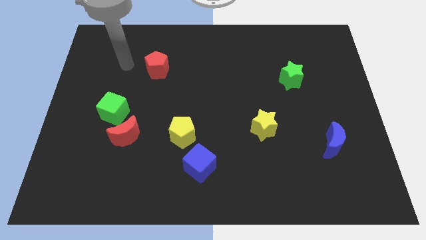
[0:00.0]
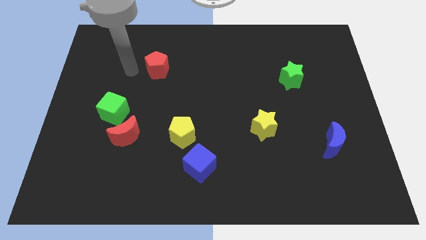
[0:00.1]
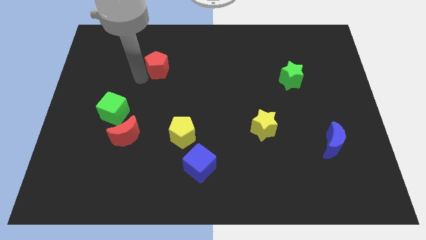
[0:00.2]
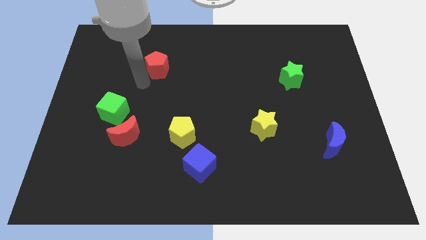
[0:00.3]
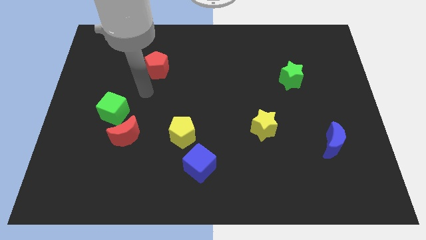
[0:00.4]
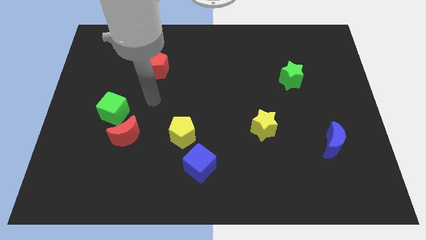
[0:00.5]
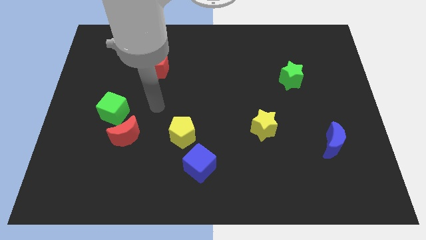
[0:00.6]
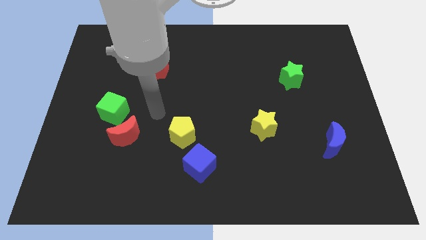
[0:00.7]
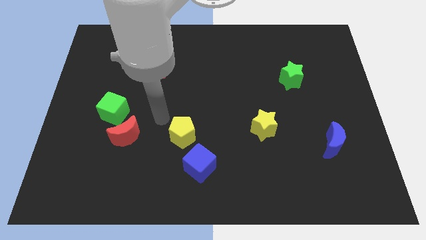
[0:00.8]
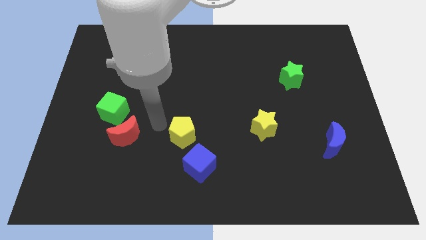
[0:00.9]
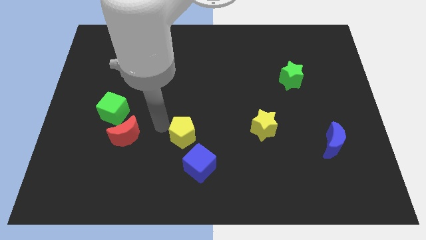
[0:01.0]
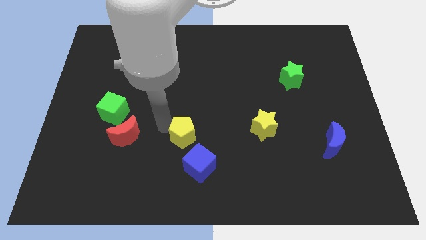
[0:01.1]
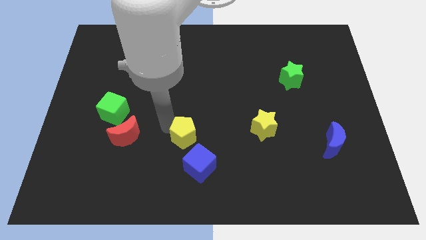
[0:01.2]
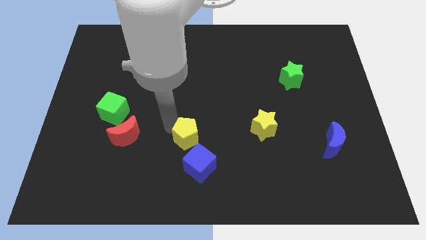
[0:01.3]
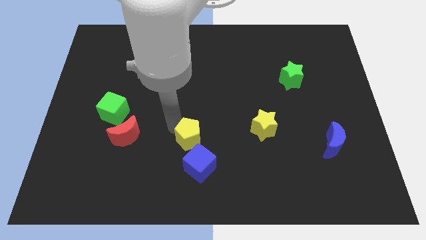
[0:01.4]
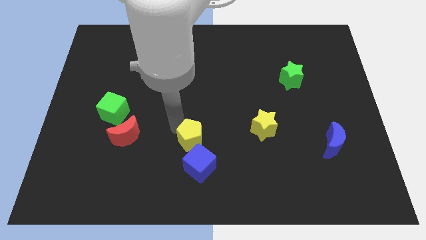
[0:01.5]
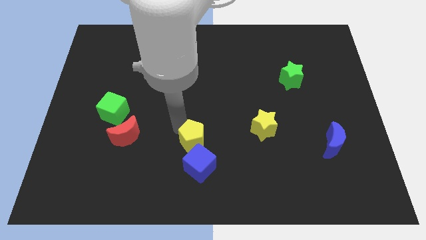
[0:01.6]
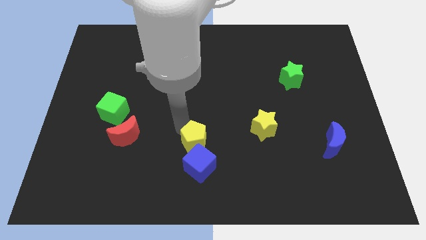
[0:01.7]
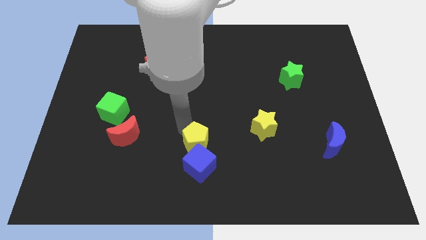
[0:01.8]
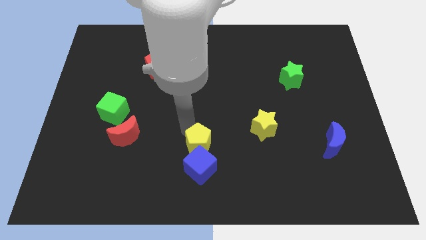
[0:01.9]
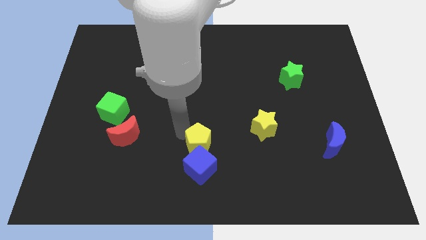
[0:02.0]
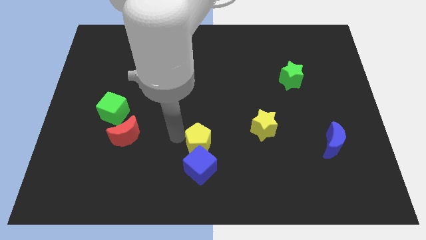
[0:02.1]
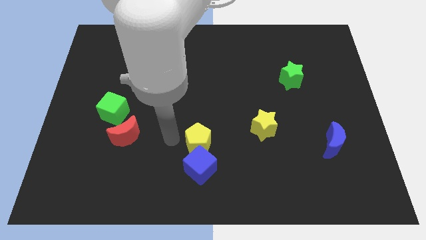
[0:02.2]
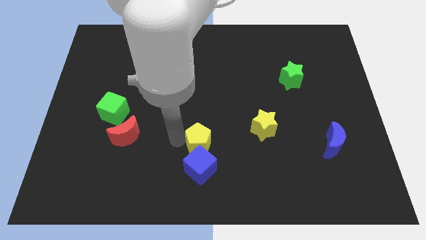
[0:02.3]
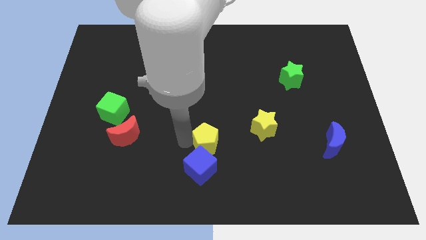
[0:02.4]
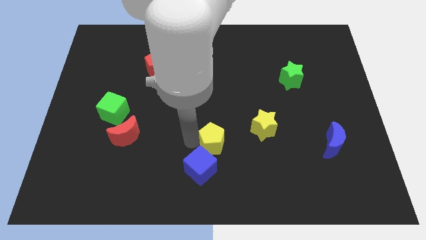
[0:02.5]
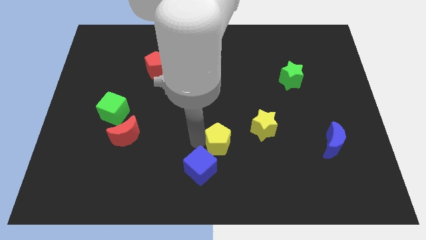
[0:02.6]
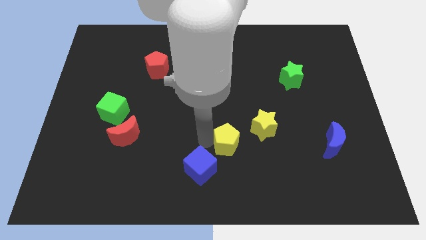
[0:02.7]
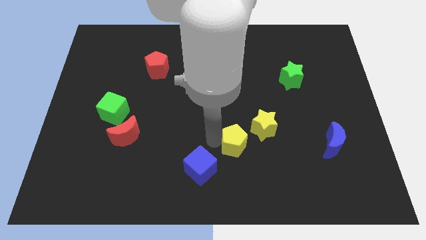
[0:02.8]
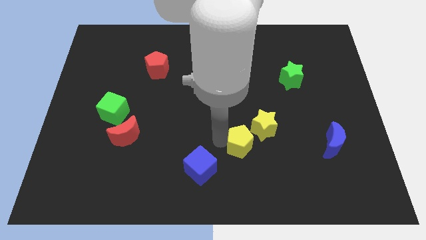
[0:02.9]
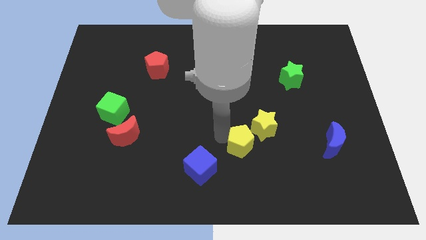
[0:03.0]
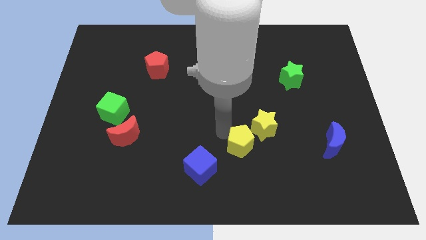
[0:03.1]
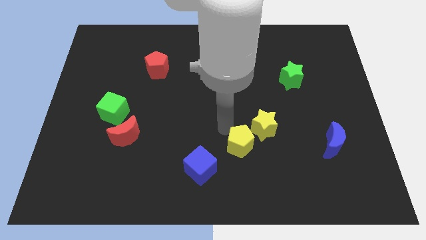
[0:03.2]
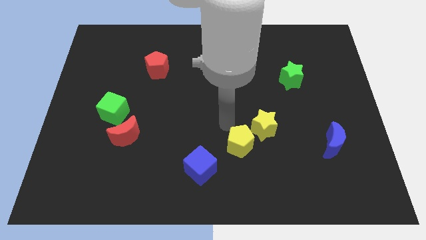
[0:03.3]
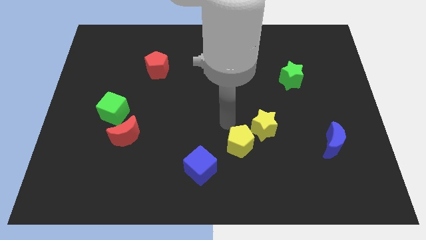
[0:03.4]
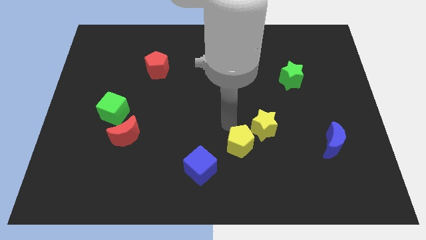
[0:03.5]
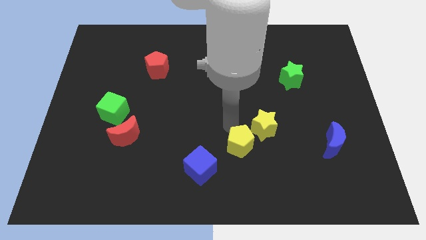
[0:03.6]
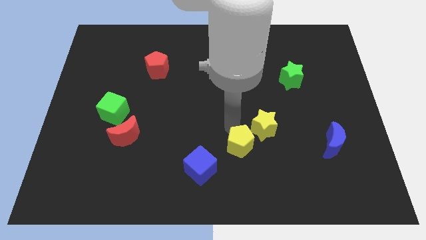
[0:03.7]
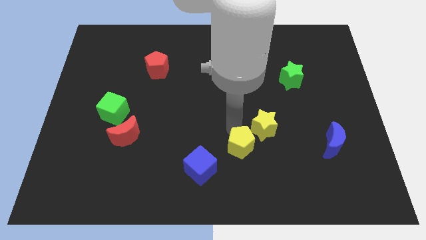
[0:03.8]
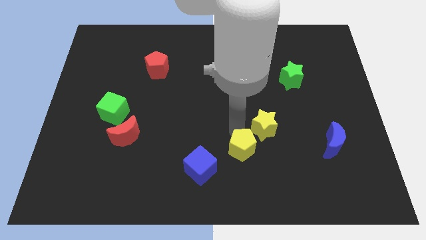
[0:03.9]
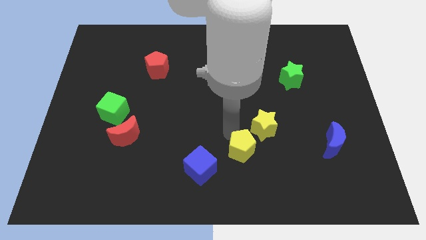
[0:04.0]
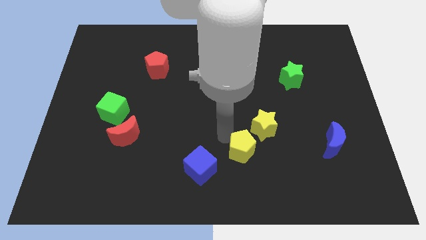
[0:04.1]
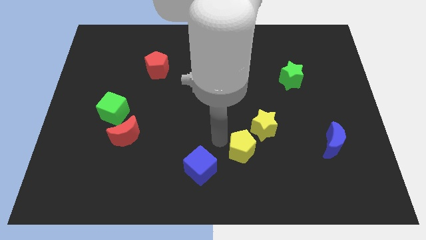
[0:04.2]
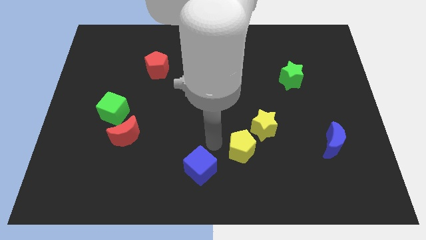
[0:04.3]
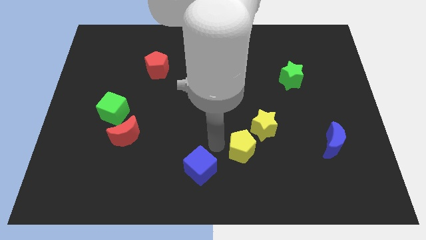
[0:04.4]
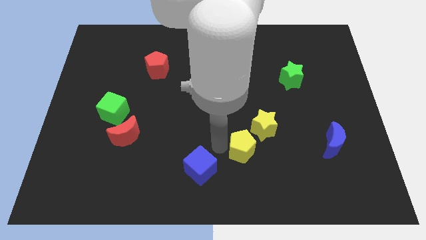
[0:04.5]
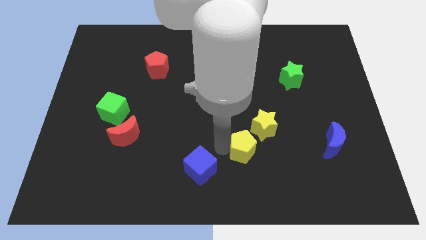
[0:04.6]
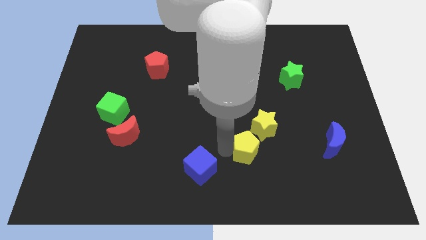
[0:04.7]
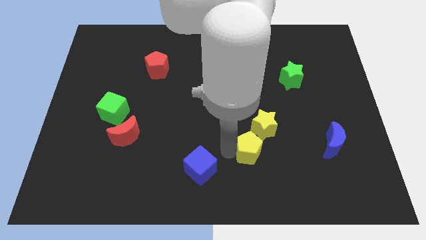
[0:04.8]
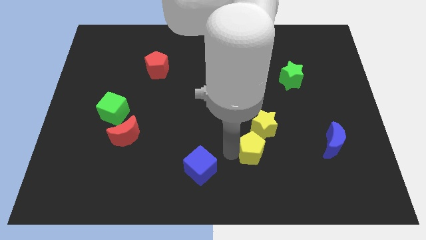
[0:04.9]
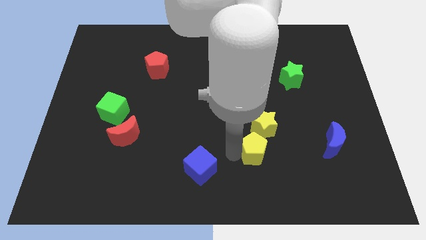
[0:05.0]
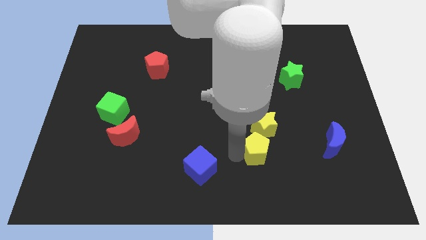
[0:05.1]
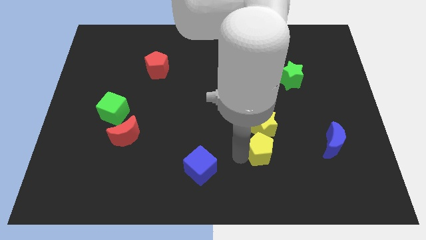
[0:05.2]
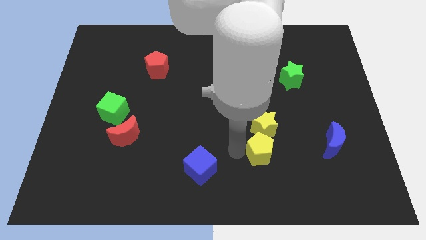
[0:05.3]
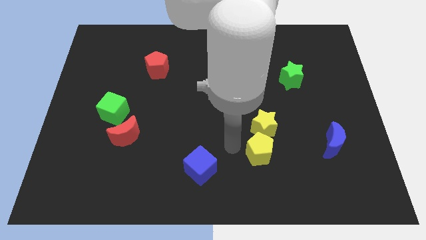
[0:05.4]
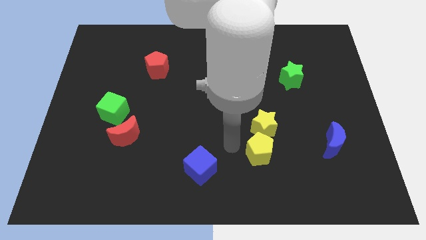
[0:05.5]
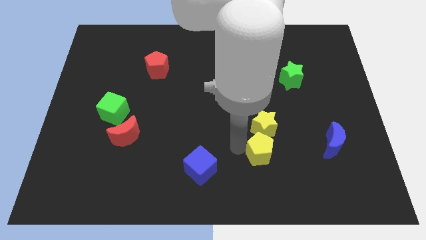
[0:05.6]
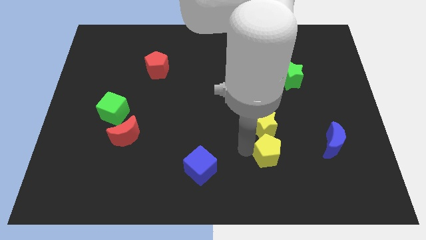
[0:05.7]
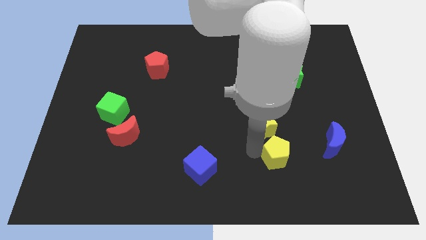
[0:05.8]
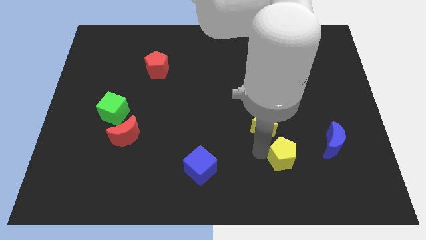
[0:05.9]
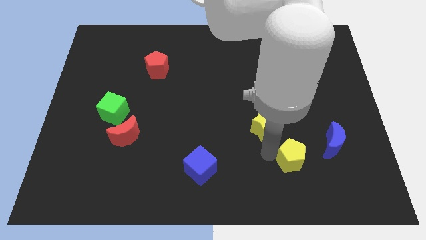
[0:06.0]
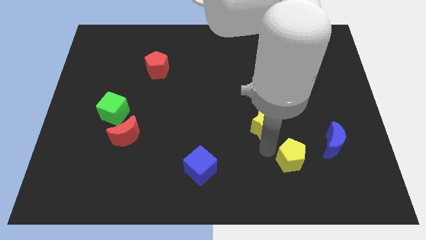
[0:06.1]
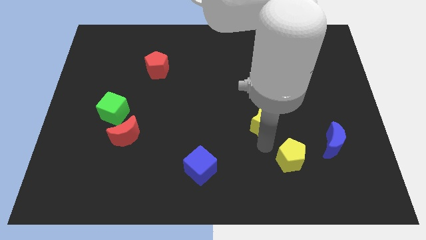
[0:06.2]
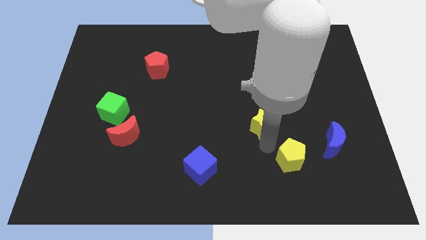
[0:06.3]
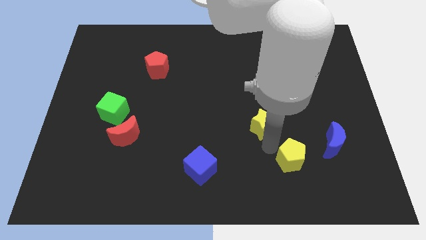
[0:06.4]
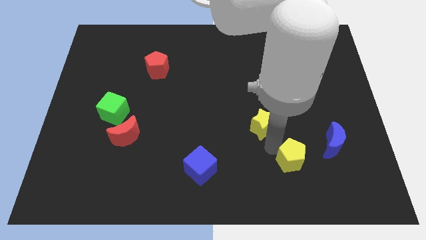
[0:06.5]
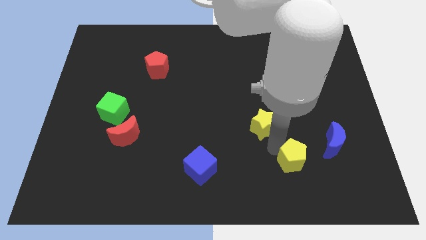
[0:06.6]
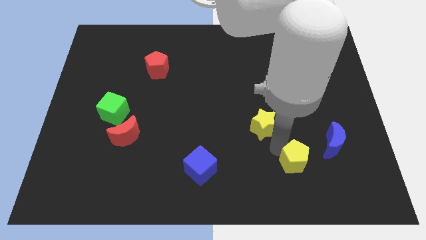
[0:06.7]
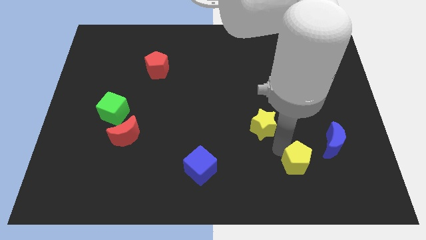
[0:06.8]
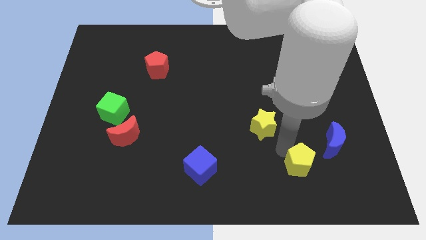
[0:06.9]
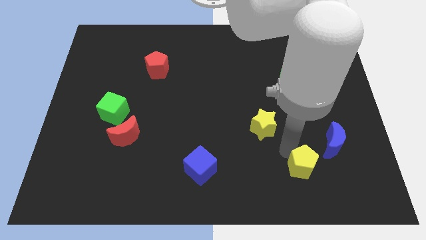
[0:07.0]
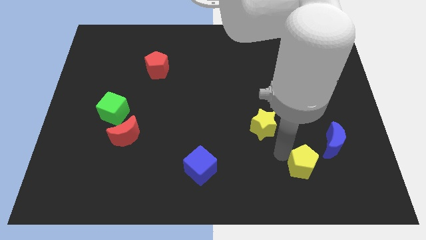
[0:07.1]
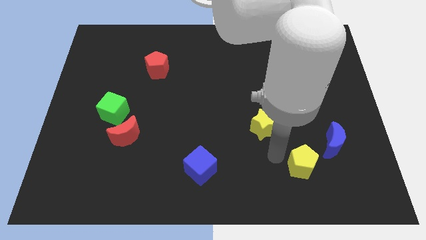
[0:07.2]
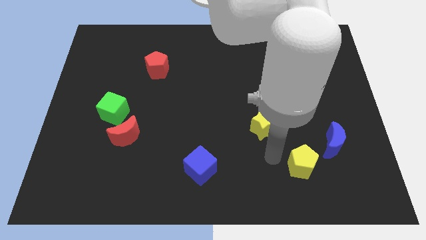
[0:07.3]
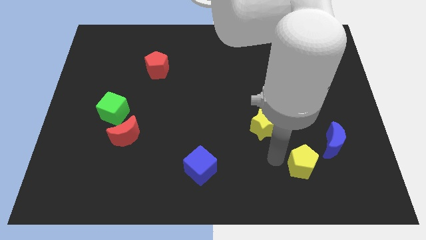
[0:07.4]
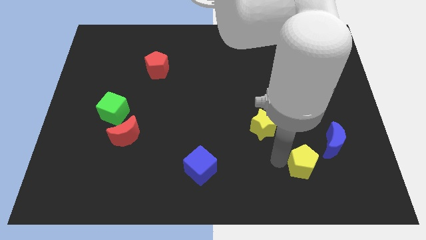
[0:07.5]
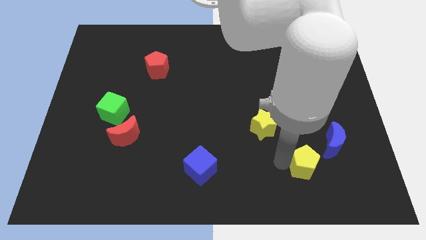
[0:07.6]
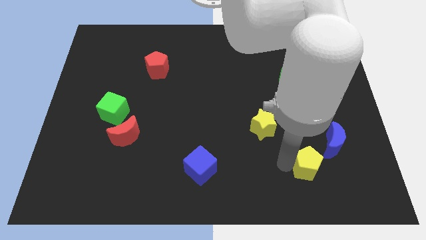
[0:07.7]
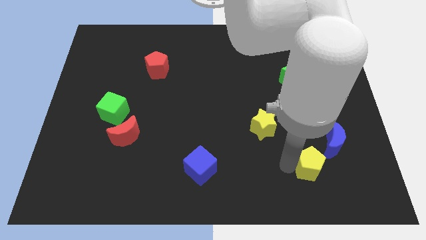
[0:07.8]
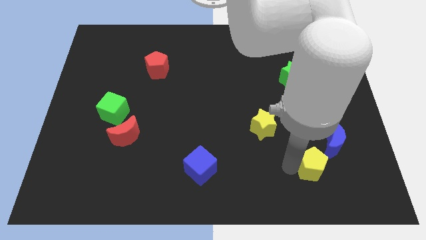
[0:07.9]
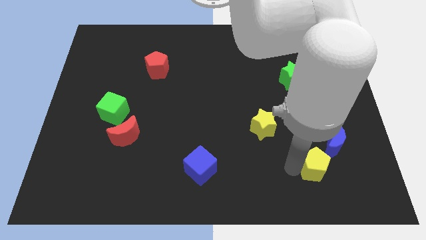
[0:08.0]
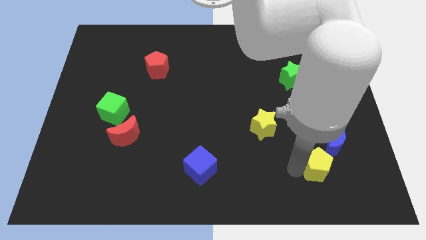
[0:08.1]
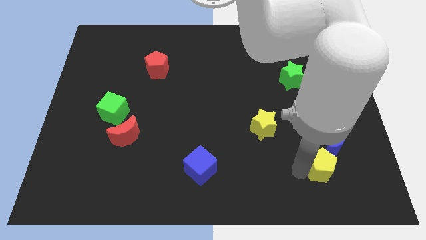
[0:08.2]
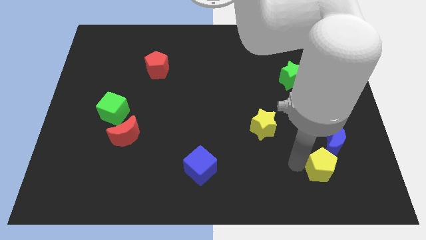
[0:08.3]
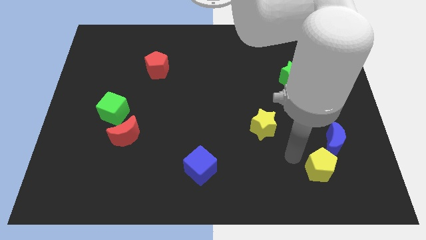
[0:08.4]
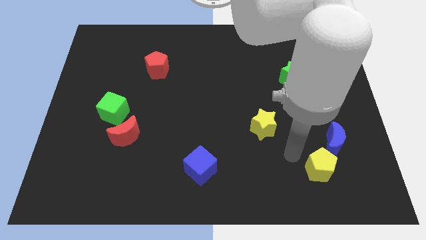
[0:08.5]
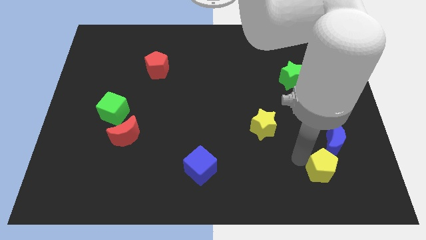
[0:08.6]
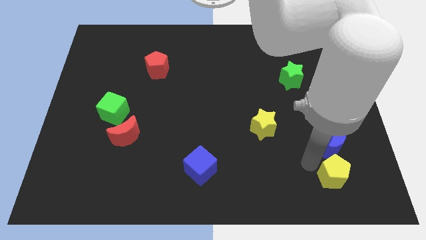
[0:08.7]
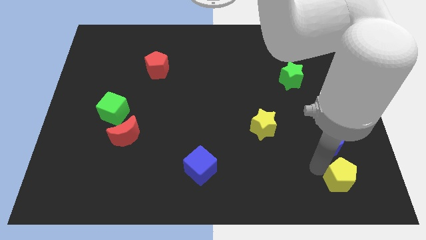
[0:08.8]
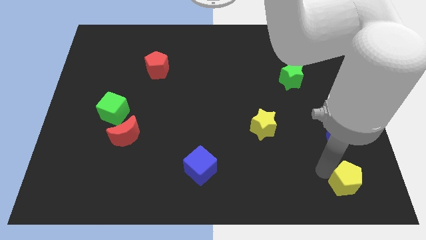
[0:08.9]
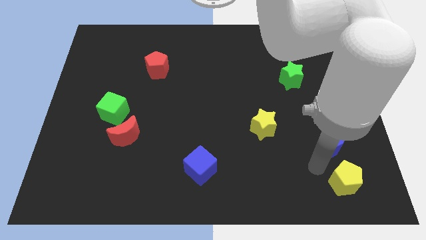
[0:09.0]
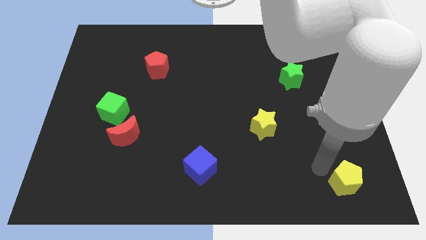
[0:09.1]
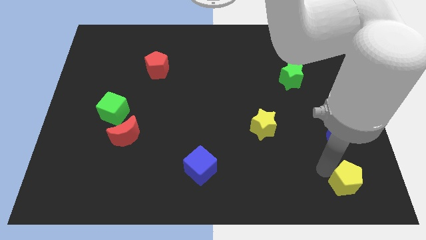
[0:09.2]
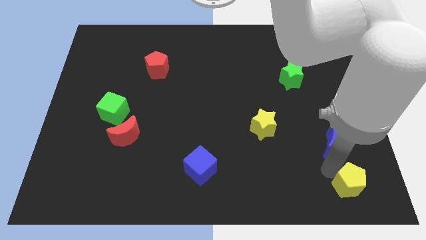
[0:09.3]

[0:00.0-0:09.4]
move the yellow pentagon to the lower right corner
